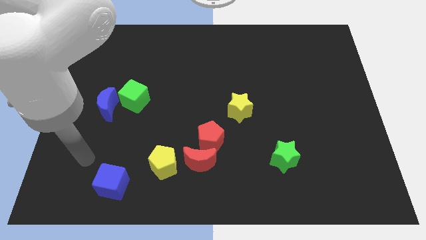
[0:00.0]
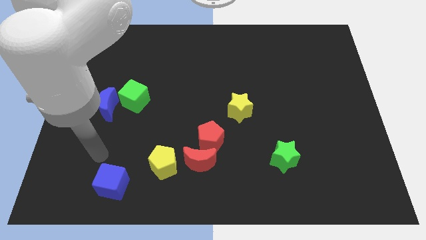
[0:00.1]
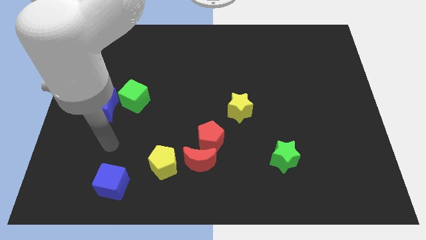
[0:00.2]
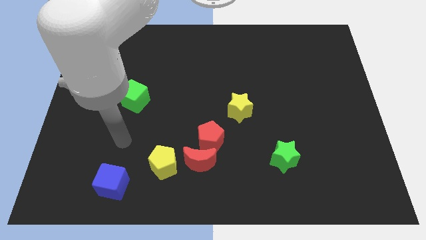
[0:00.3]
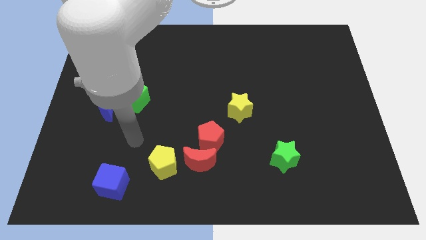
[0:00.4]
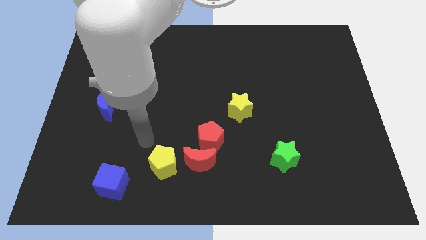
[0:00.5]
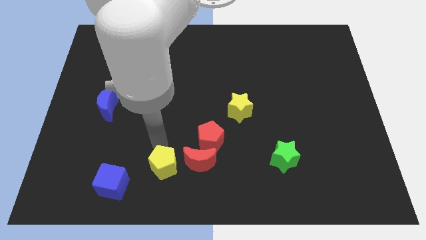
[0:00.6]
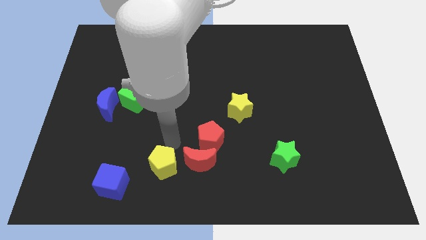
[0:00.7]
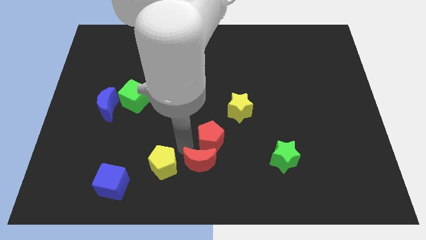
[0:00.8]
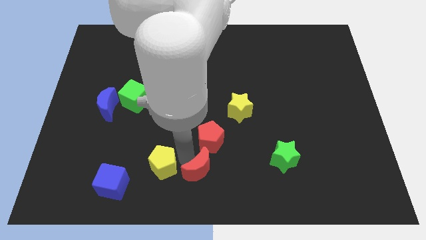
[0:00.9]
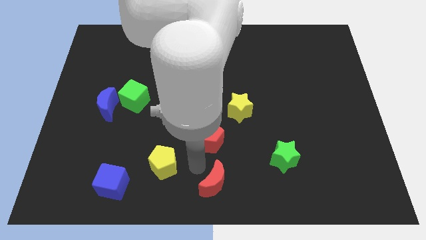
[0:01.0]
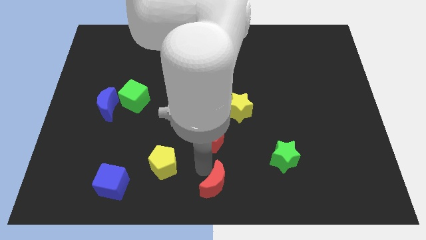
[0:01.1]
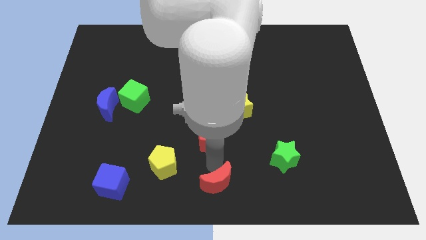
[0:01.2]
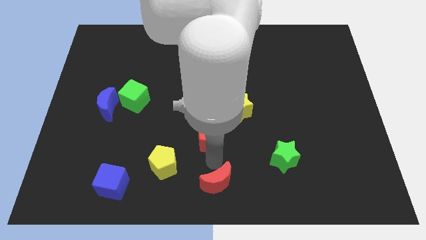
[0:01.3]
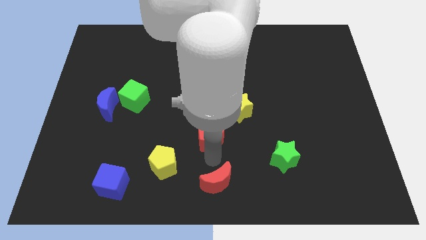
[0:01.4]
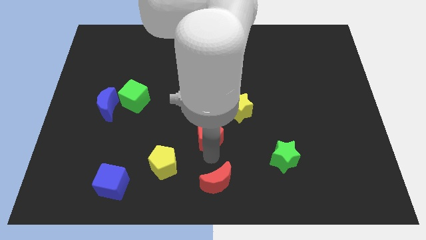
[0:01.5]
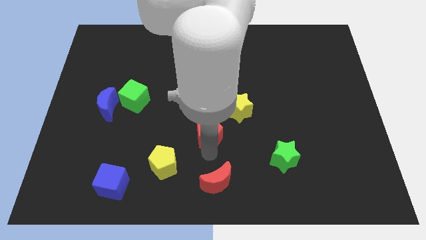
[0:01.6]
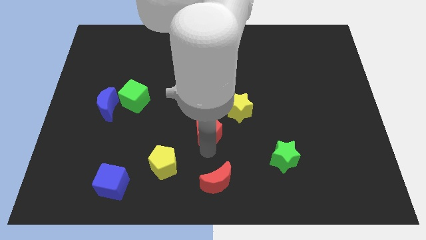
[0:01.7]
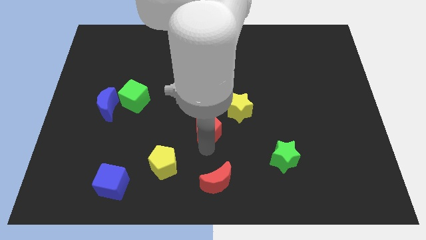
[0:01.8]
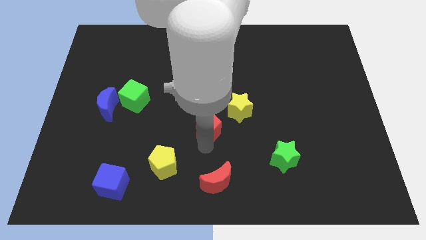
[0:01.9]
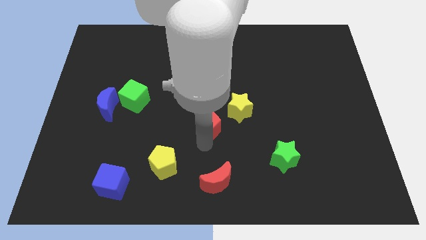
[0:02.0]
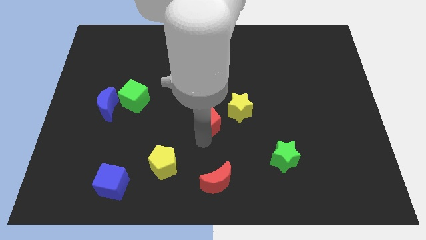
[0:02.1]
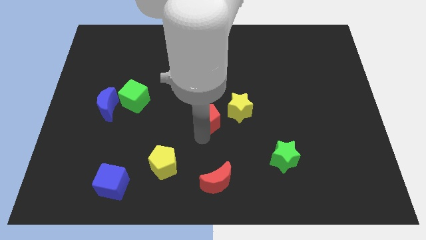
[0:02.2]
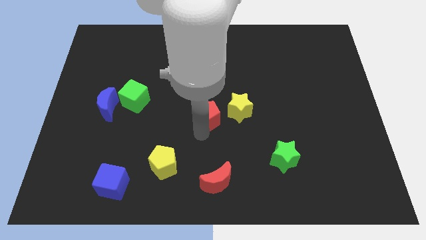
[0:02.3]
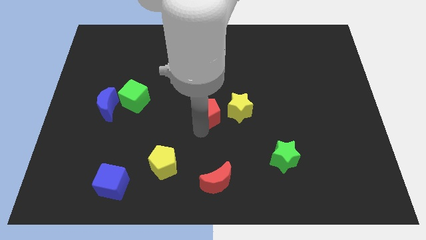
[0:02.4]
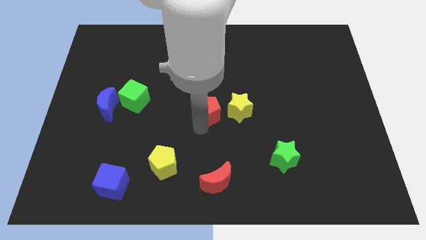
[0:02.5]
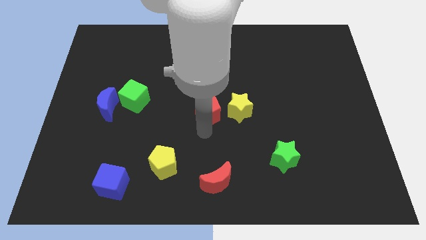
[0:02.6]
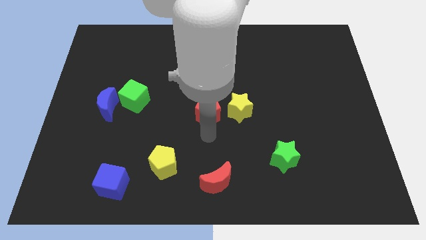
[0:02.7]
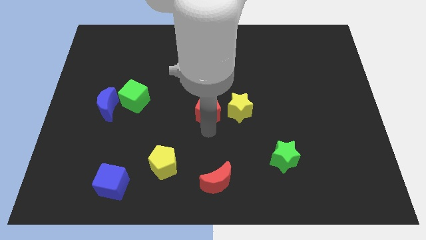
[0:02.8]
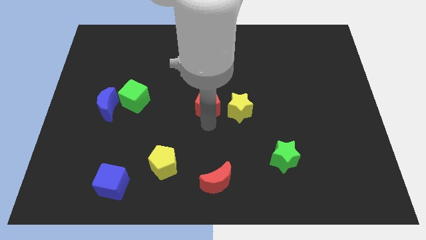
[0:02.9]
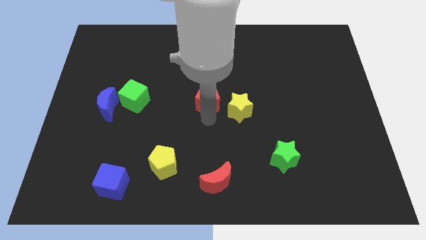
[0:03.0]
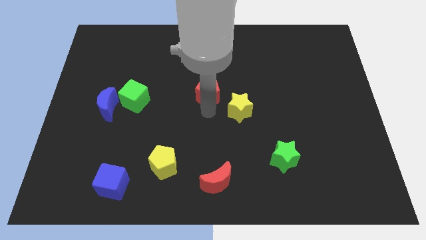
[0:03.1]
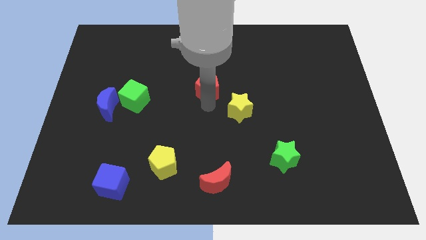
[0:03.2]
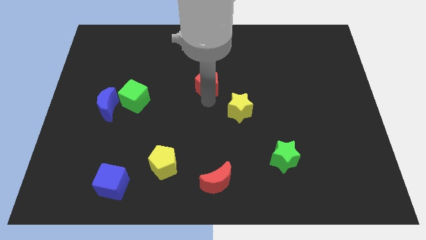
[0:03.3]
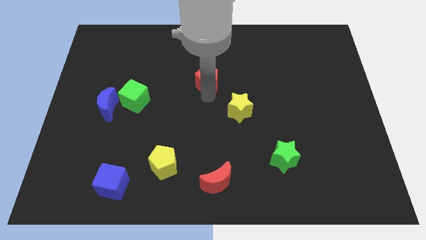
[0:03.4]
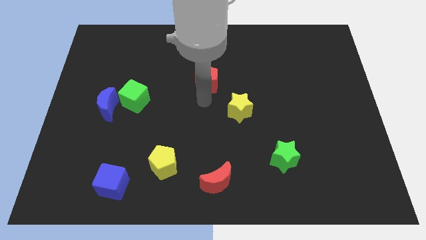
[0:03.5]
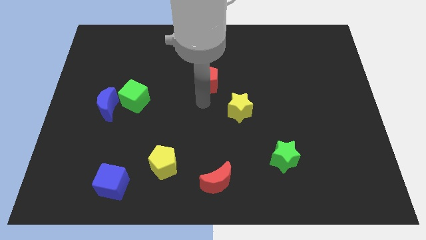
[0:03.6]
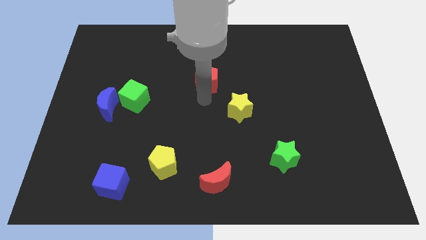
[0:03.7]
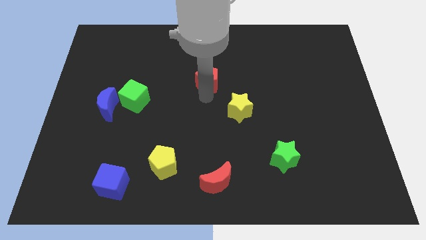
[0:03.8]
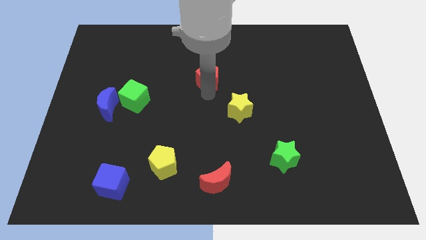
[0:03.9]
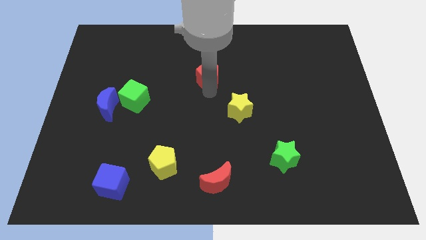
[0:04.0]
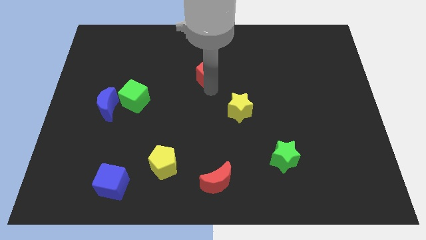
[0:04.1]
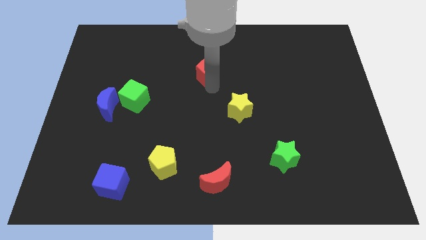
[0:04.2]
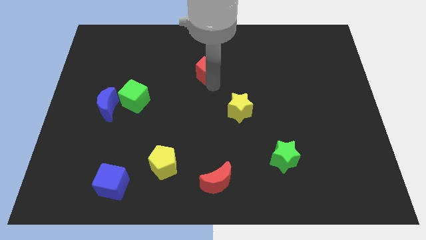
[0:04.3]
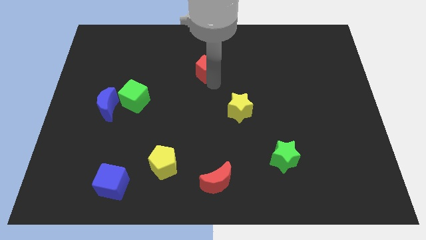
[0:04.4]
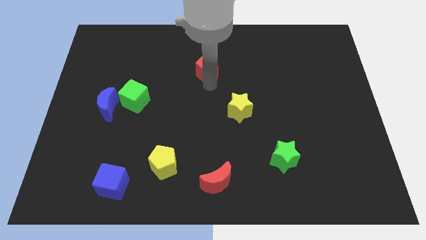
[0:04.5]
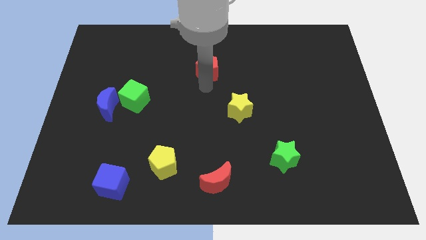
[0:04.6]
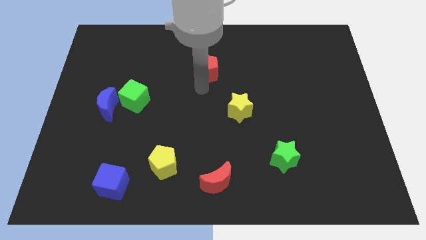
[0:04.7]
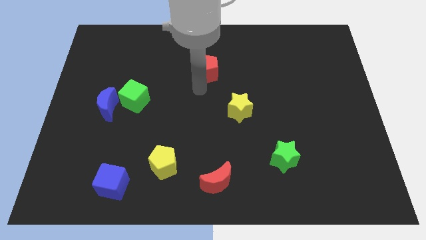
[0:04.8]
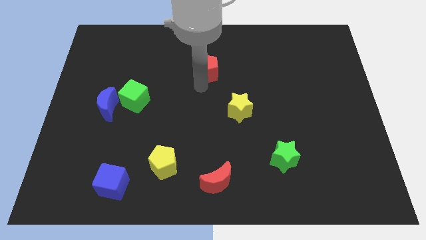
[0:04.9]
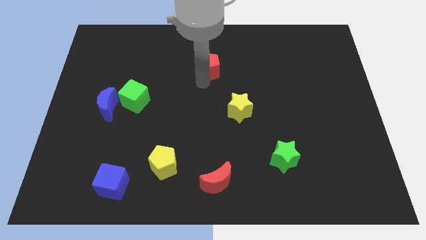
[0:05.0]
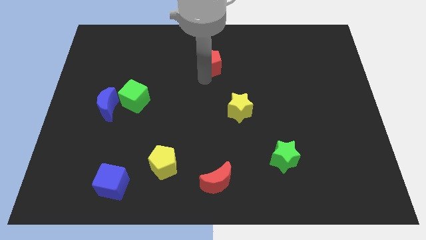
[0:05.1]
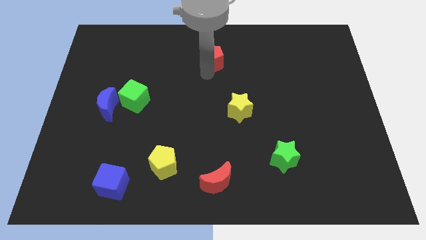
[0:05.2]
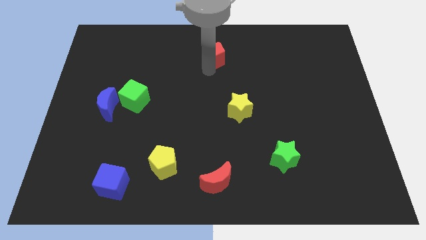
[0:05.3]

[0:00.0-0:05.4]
move the red pentagon to the towards your base

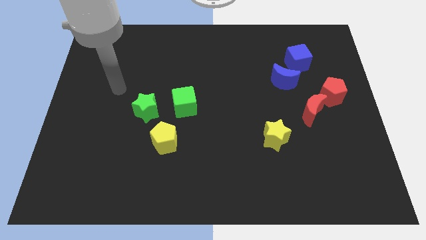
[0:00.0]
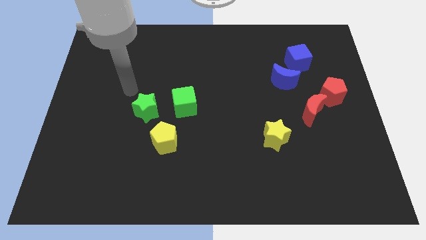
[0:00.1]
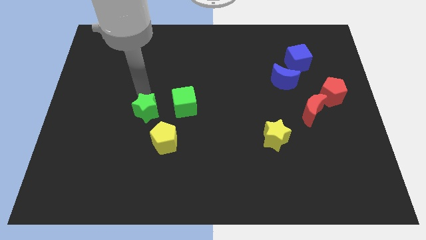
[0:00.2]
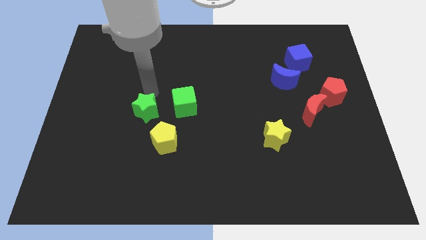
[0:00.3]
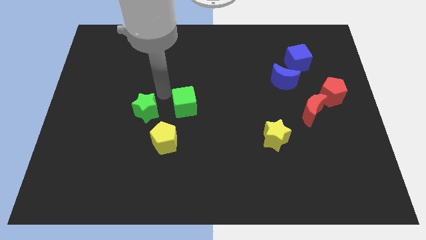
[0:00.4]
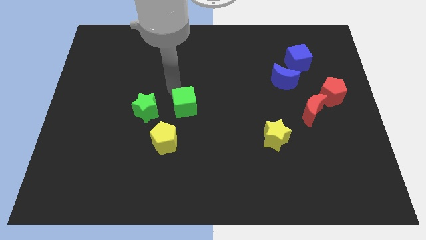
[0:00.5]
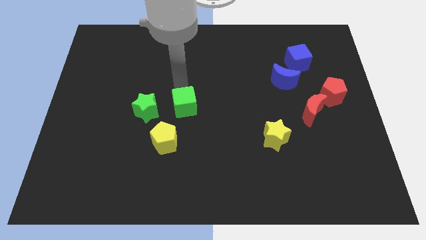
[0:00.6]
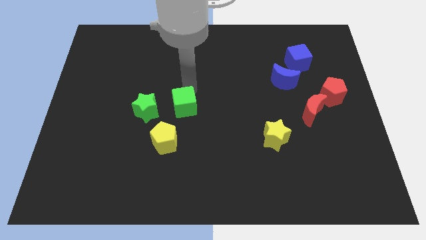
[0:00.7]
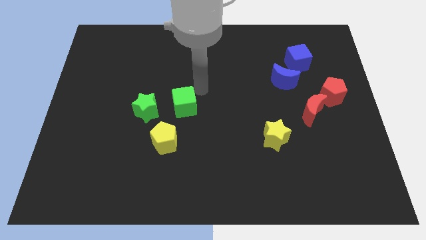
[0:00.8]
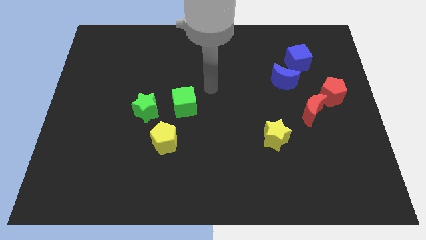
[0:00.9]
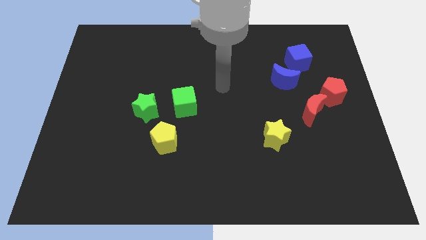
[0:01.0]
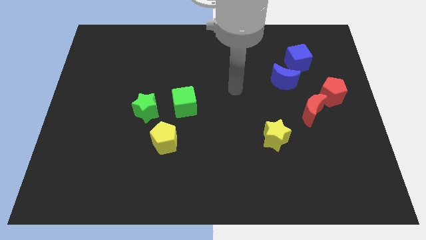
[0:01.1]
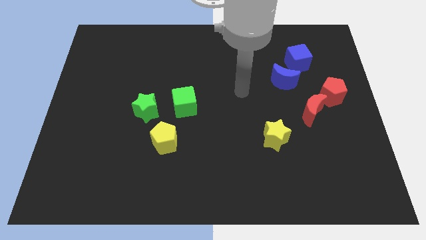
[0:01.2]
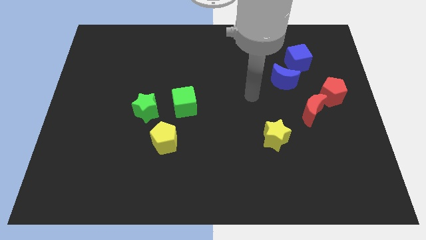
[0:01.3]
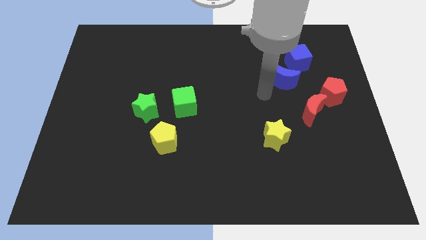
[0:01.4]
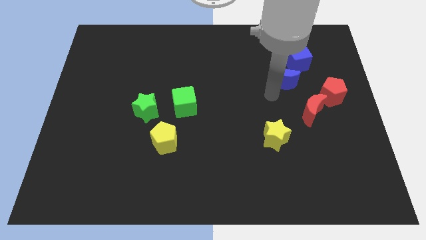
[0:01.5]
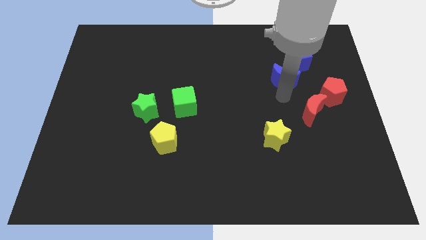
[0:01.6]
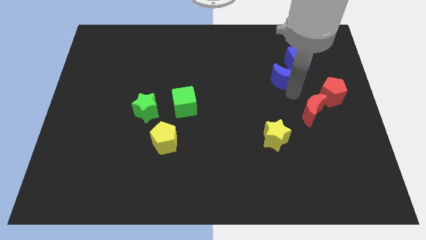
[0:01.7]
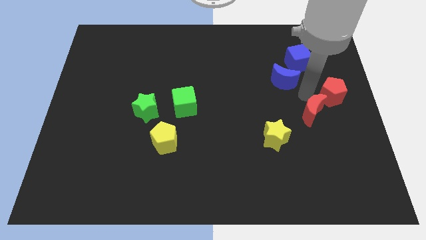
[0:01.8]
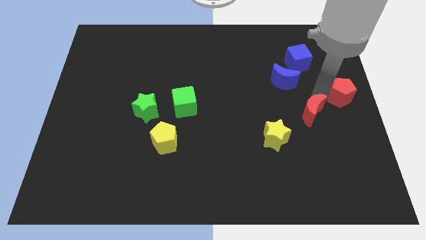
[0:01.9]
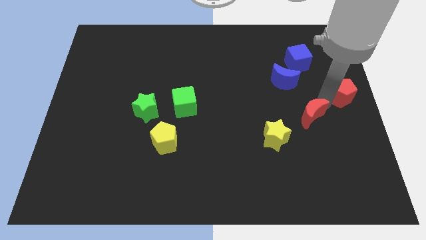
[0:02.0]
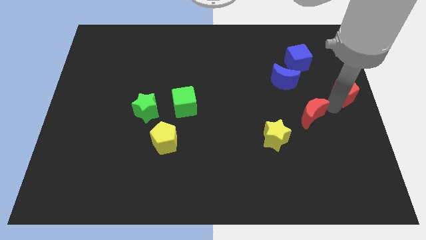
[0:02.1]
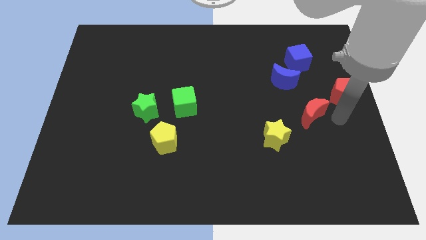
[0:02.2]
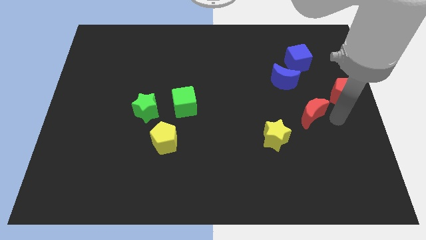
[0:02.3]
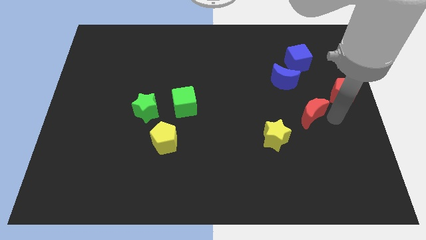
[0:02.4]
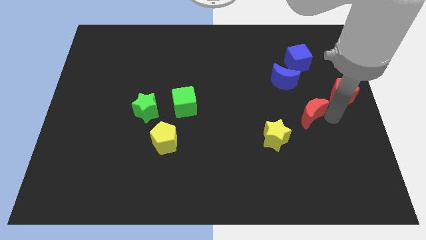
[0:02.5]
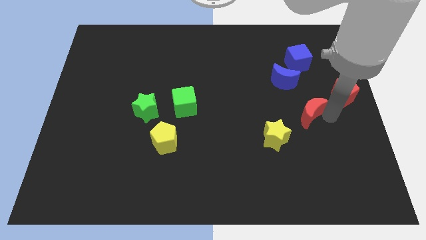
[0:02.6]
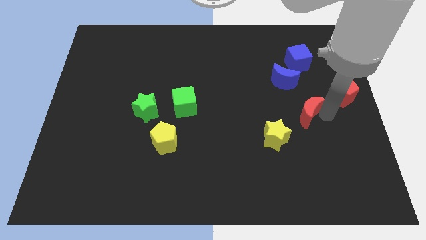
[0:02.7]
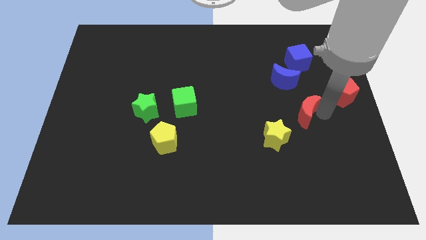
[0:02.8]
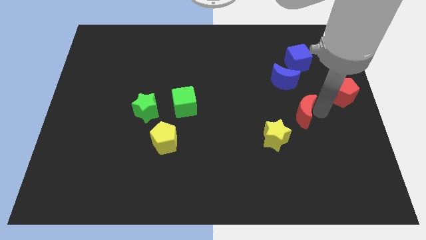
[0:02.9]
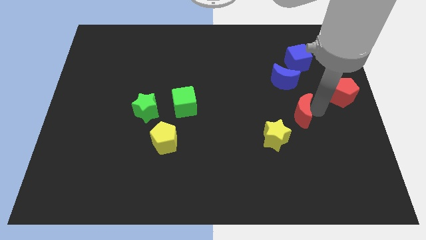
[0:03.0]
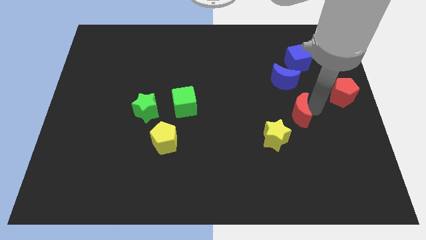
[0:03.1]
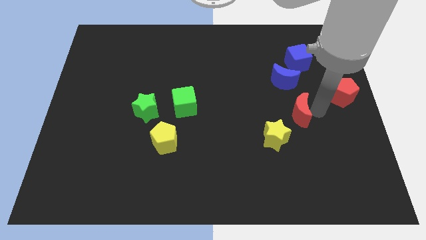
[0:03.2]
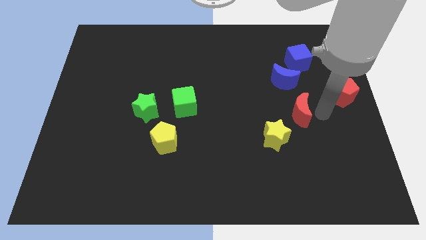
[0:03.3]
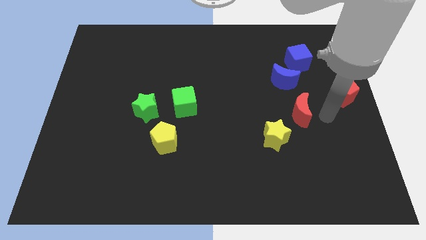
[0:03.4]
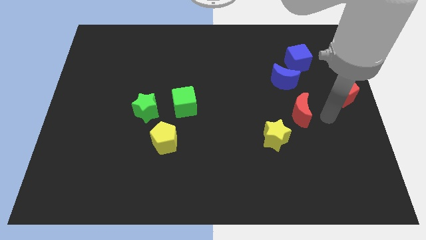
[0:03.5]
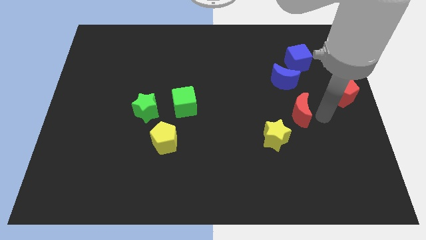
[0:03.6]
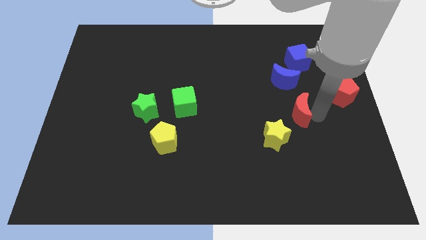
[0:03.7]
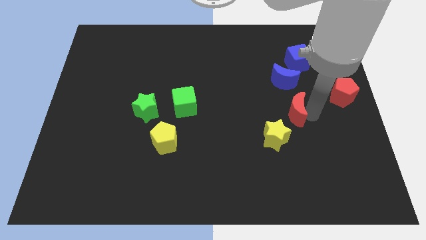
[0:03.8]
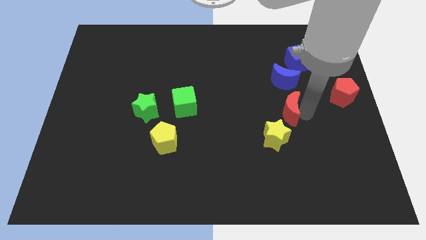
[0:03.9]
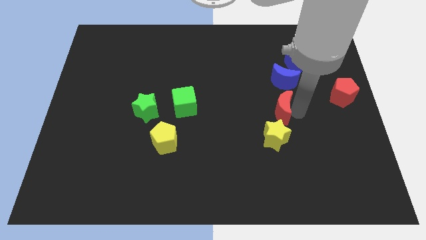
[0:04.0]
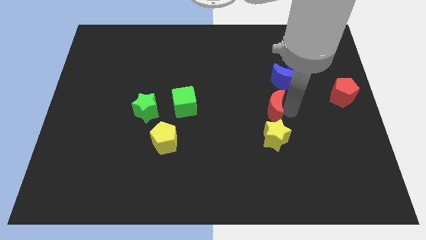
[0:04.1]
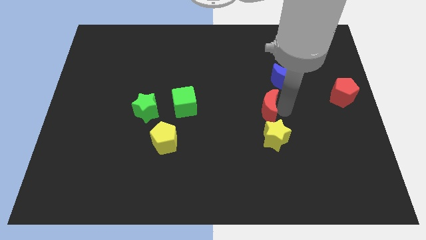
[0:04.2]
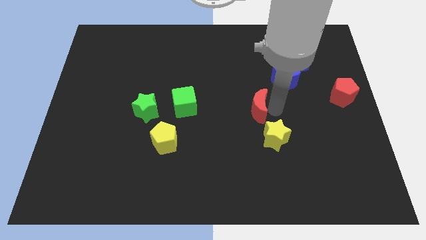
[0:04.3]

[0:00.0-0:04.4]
move the red moon to the center of the board
